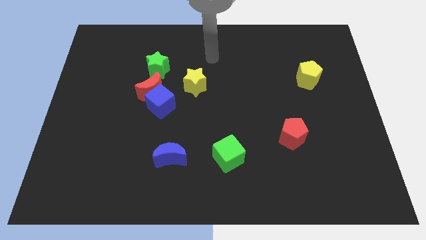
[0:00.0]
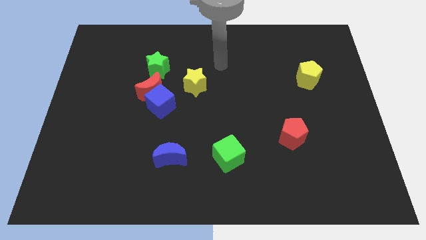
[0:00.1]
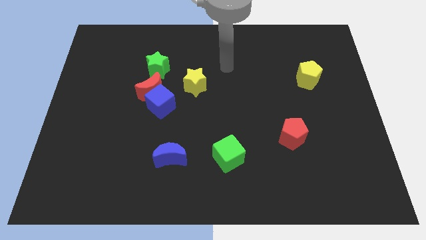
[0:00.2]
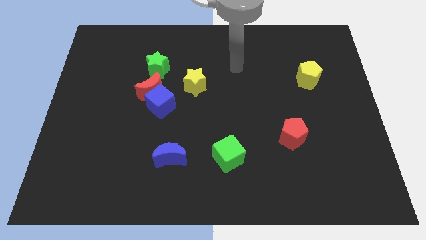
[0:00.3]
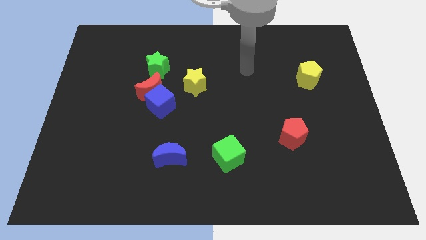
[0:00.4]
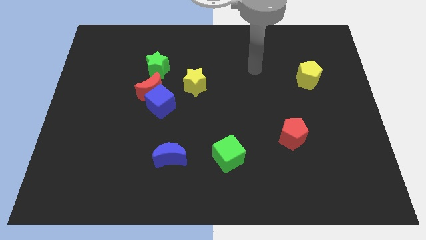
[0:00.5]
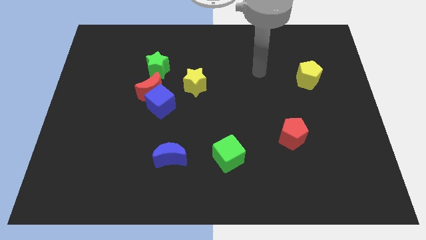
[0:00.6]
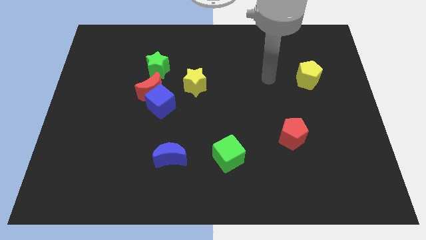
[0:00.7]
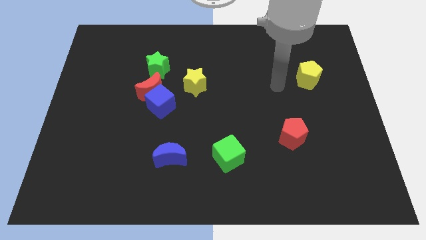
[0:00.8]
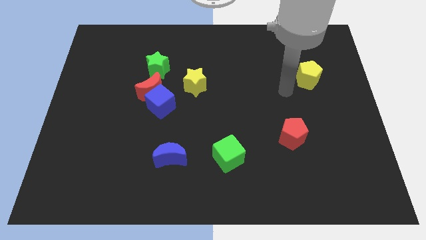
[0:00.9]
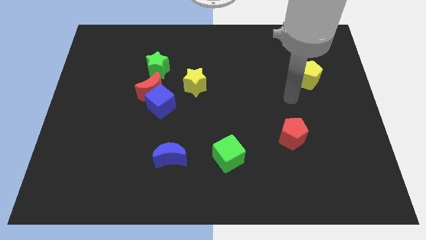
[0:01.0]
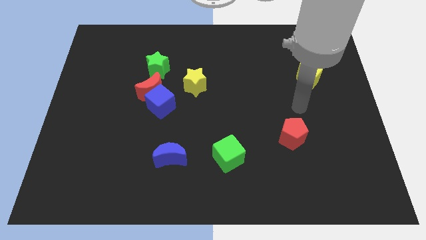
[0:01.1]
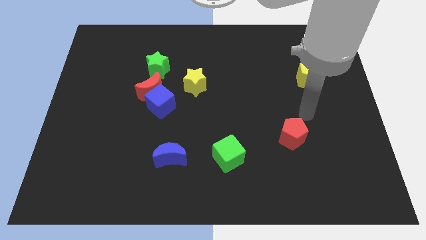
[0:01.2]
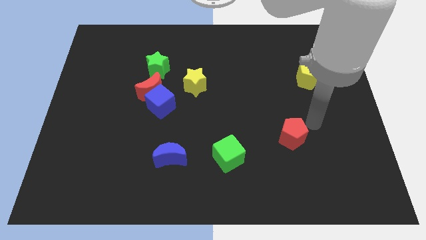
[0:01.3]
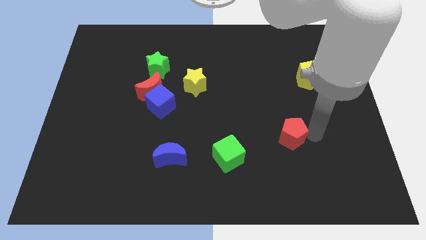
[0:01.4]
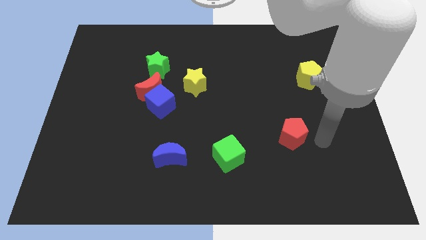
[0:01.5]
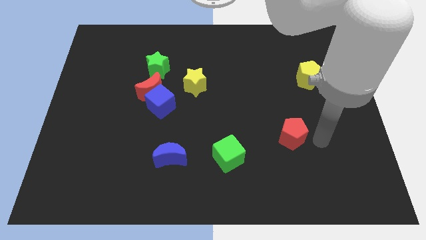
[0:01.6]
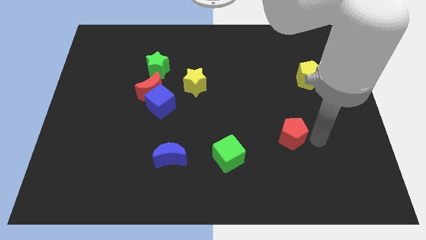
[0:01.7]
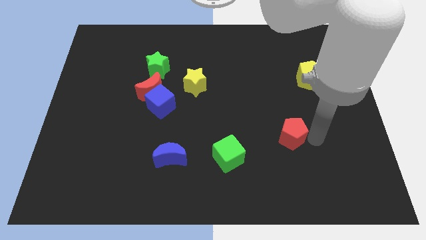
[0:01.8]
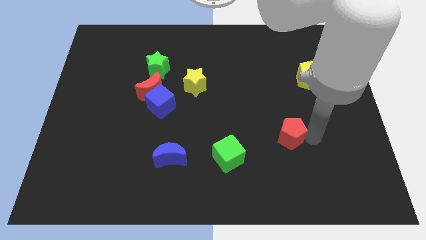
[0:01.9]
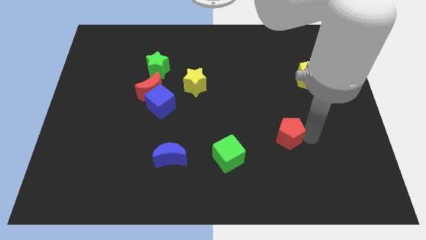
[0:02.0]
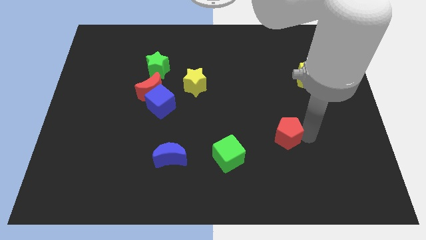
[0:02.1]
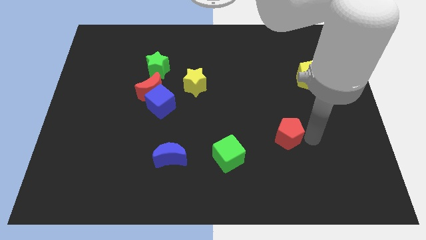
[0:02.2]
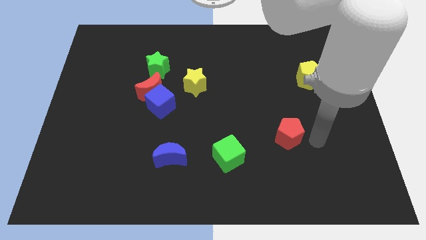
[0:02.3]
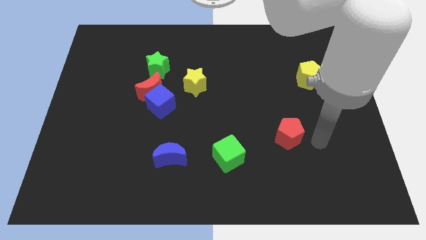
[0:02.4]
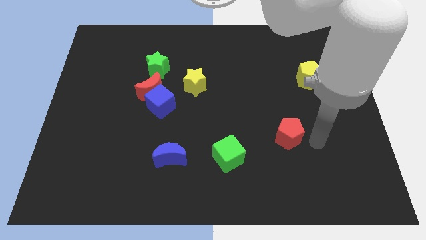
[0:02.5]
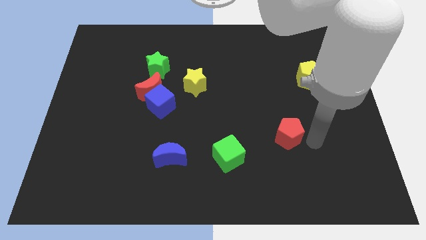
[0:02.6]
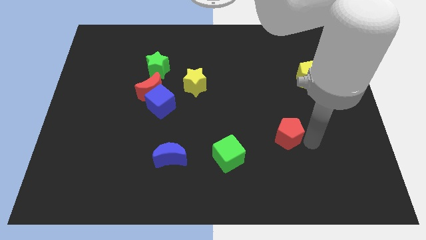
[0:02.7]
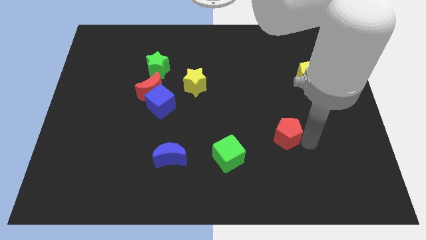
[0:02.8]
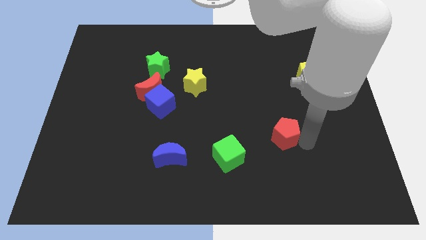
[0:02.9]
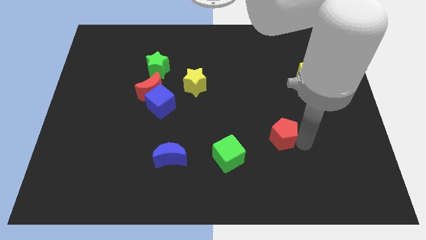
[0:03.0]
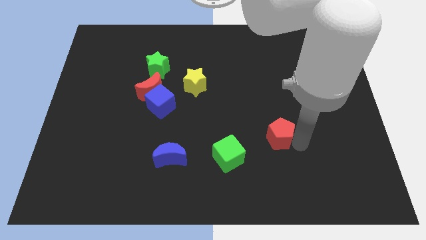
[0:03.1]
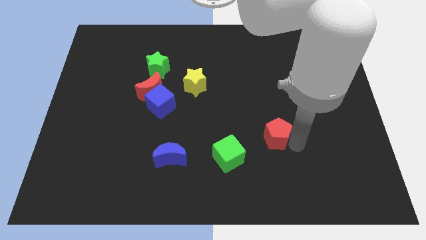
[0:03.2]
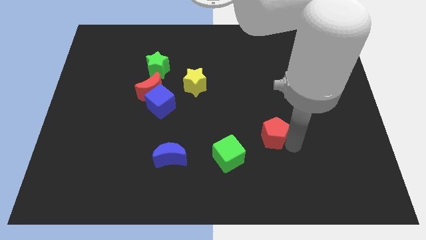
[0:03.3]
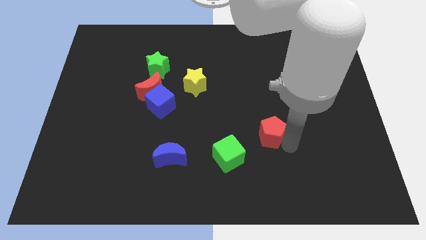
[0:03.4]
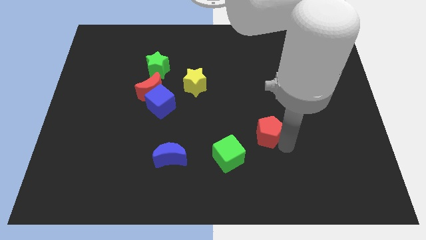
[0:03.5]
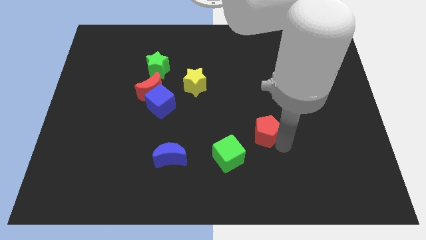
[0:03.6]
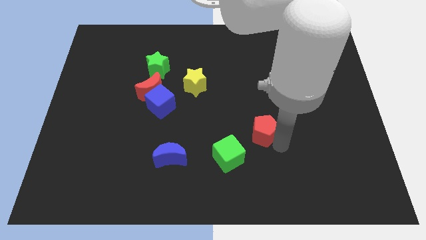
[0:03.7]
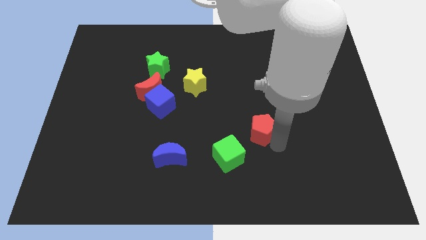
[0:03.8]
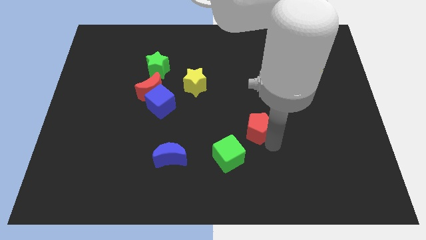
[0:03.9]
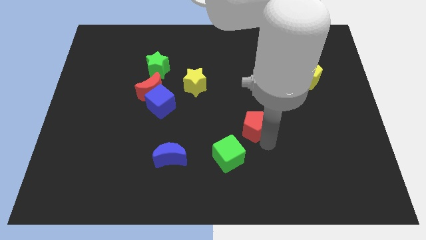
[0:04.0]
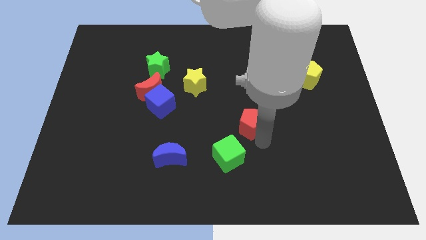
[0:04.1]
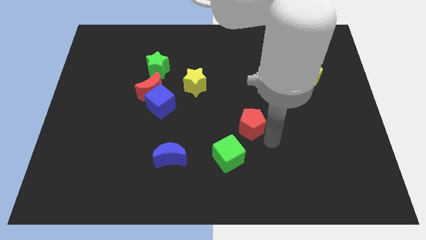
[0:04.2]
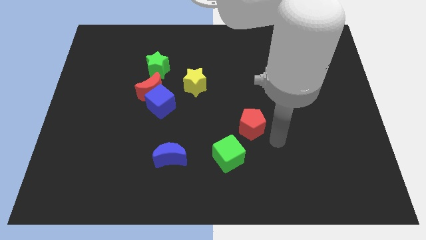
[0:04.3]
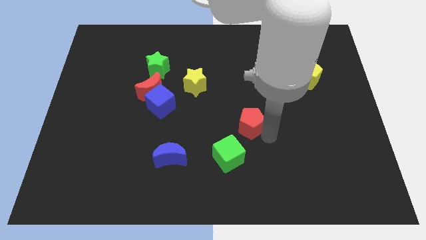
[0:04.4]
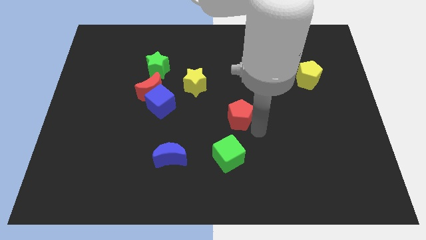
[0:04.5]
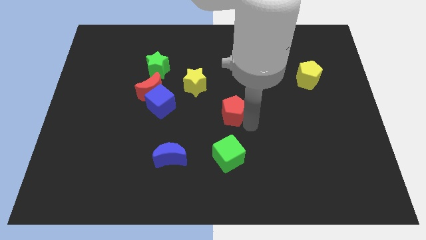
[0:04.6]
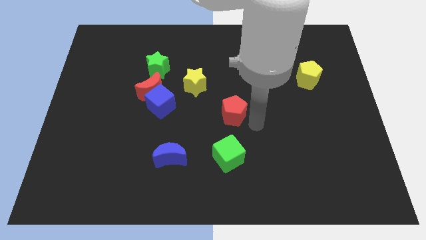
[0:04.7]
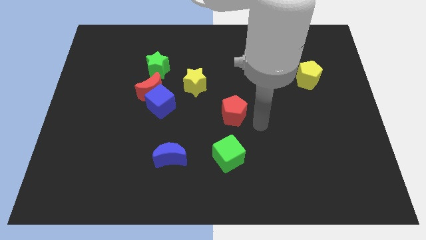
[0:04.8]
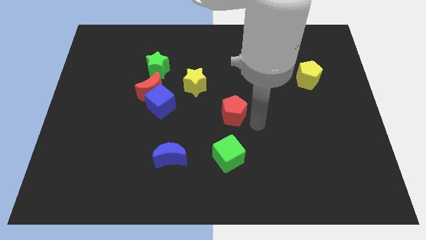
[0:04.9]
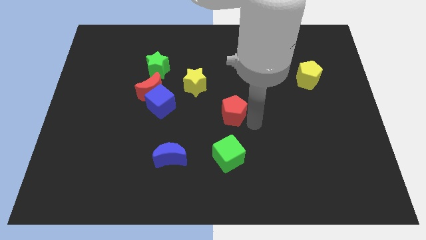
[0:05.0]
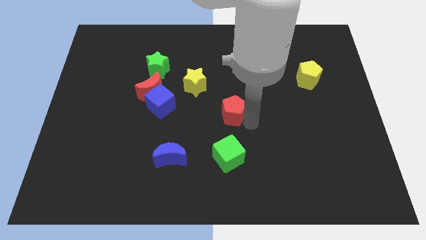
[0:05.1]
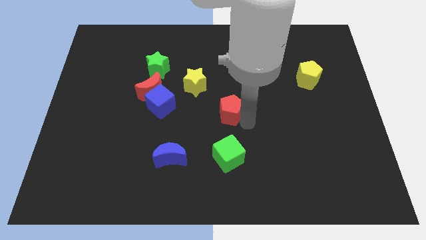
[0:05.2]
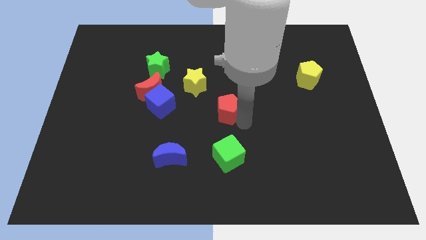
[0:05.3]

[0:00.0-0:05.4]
push the red pentagon right of the blue cube

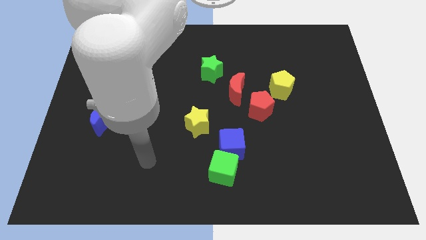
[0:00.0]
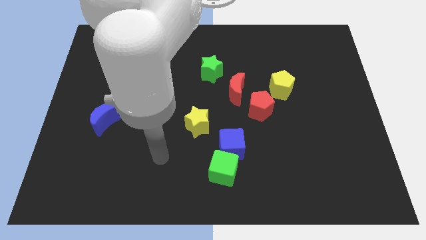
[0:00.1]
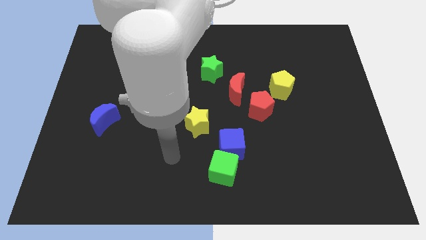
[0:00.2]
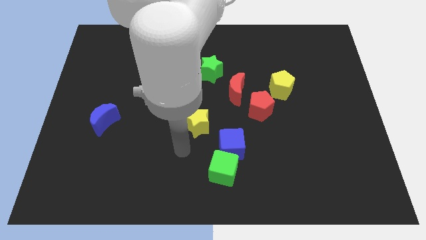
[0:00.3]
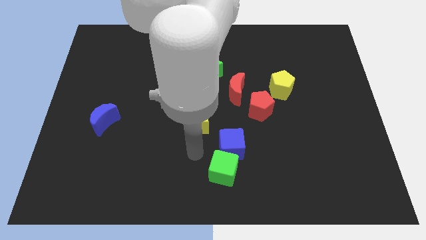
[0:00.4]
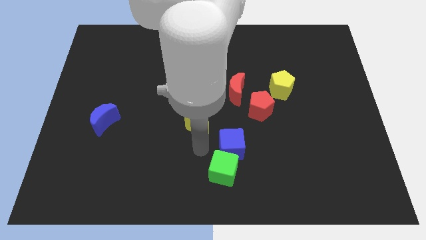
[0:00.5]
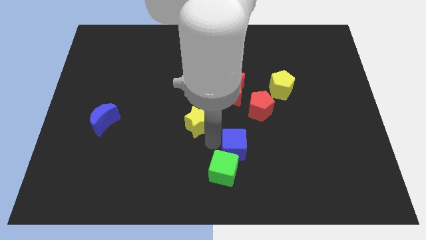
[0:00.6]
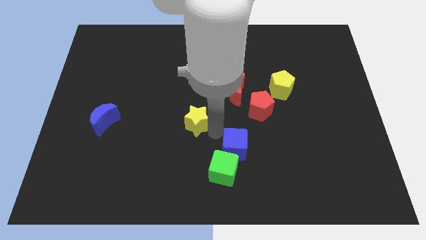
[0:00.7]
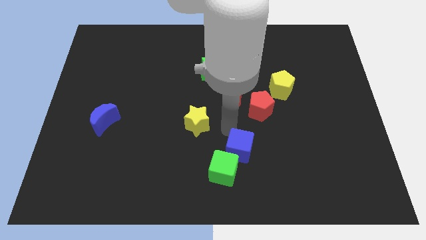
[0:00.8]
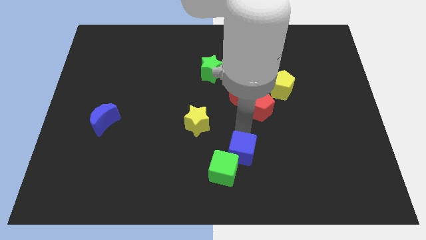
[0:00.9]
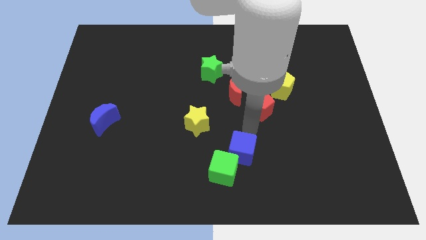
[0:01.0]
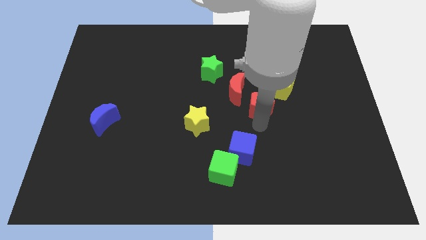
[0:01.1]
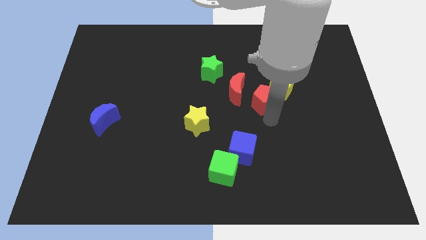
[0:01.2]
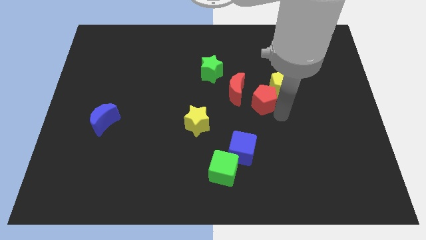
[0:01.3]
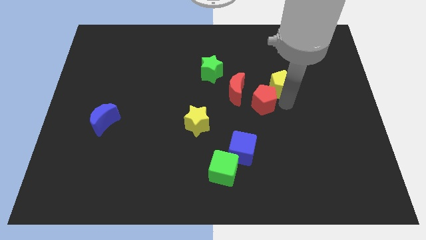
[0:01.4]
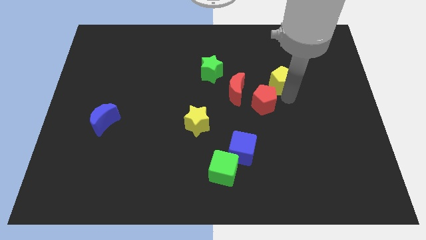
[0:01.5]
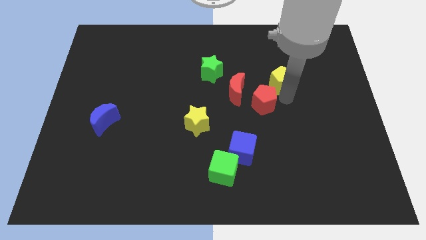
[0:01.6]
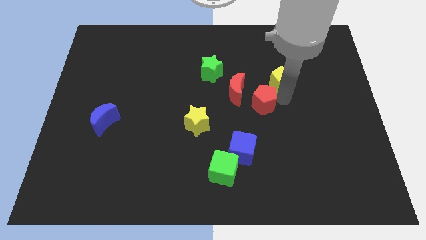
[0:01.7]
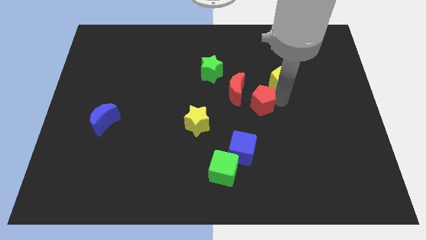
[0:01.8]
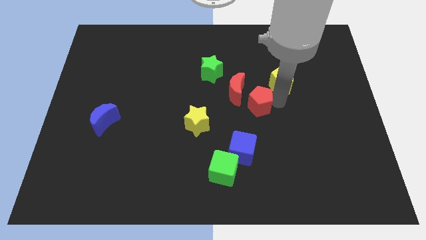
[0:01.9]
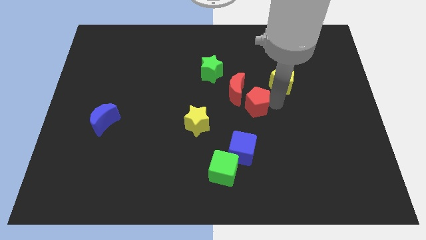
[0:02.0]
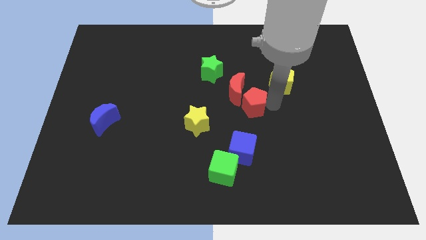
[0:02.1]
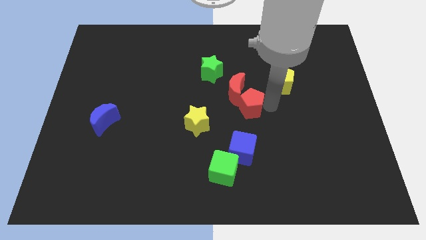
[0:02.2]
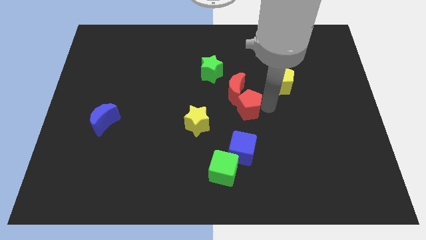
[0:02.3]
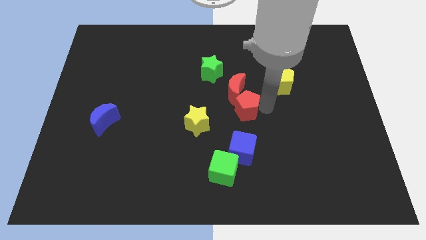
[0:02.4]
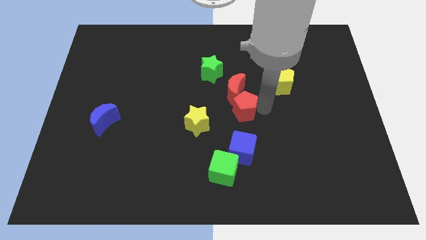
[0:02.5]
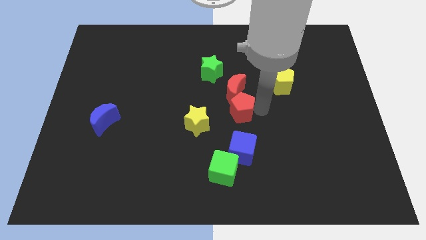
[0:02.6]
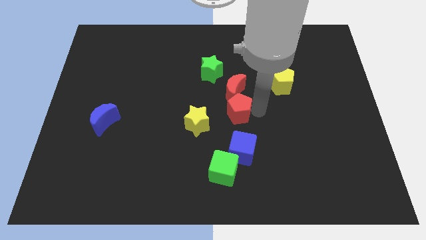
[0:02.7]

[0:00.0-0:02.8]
slide the red pentagon to the bottom left side of the red moon
